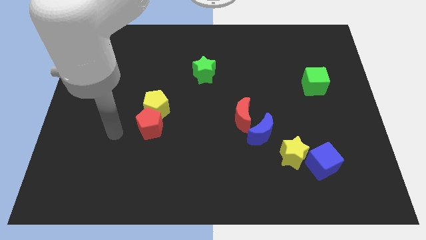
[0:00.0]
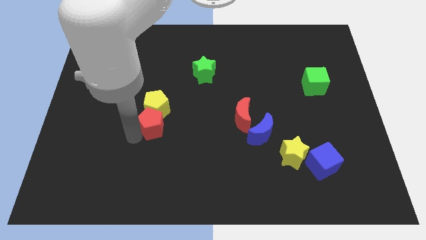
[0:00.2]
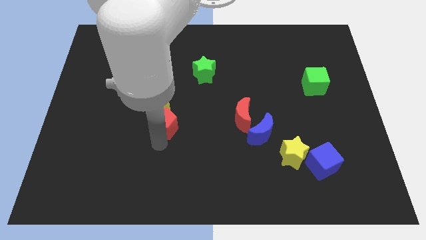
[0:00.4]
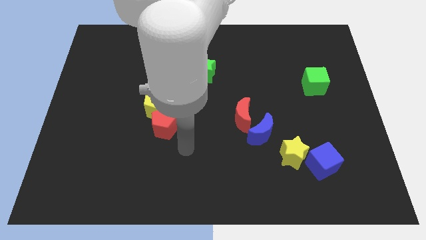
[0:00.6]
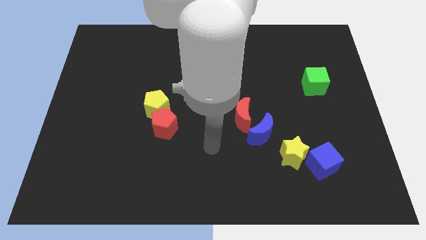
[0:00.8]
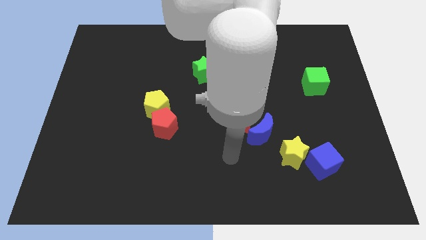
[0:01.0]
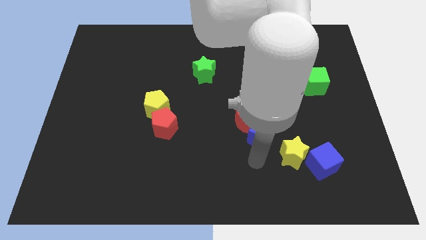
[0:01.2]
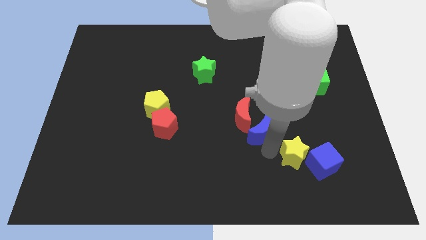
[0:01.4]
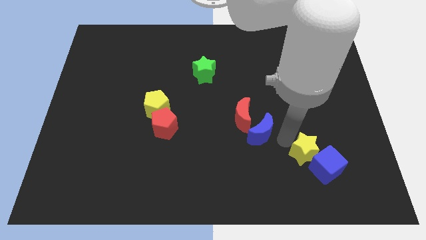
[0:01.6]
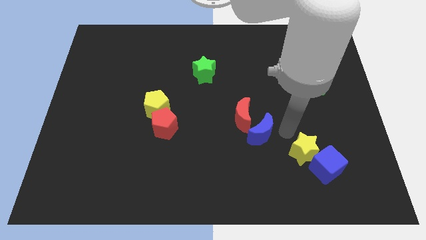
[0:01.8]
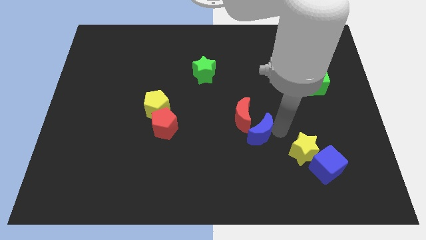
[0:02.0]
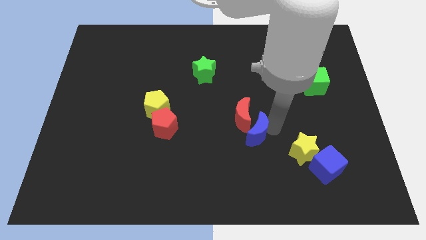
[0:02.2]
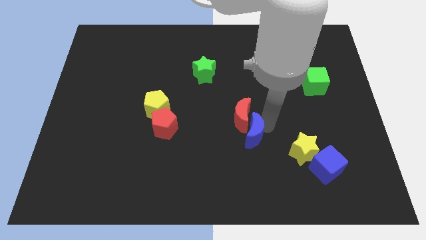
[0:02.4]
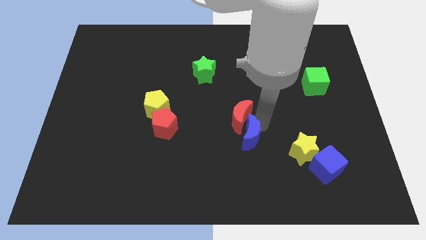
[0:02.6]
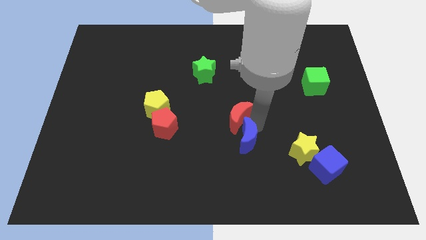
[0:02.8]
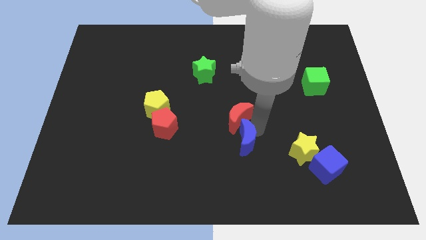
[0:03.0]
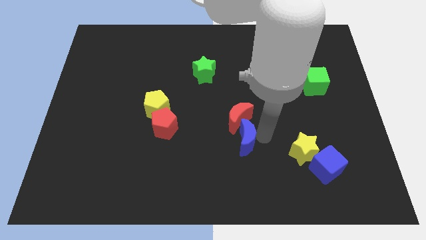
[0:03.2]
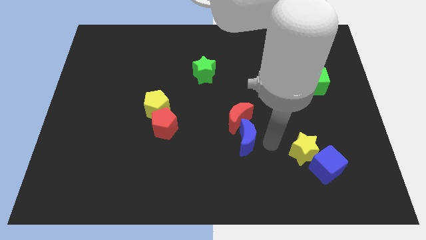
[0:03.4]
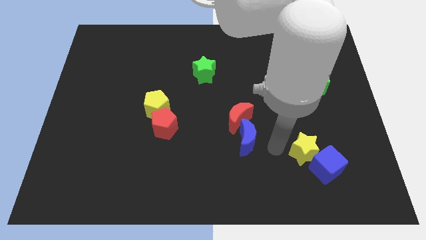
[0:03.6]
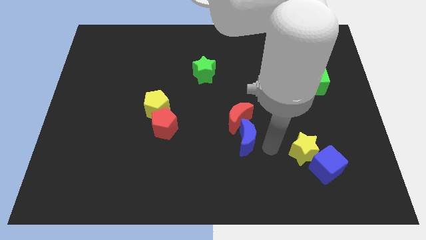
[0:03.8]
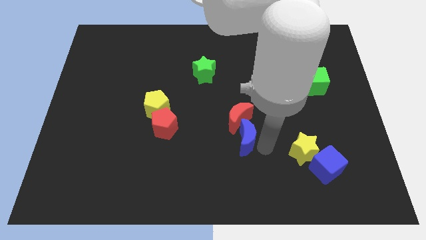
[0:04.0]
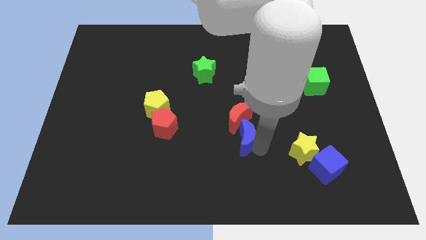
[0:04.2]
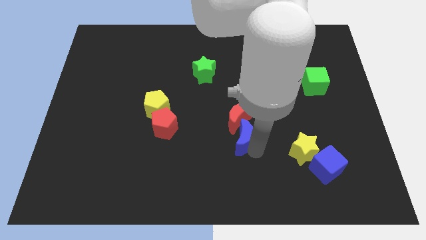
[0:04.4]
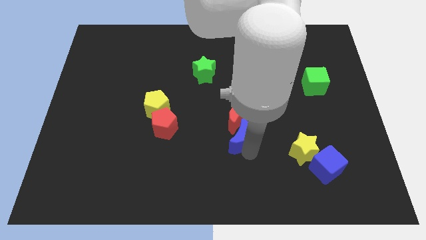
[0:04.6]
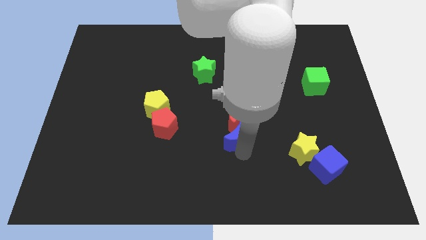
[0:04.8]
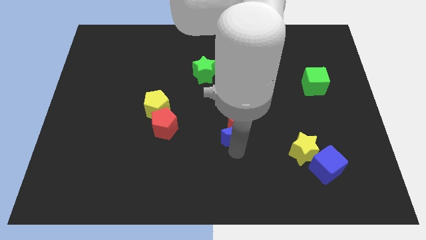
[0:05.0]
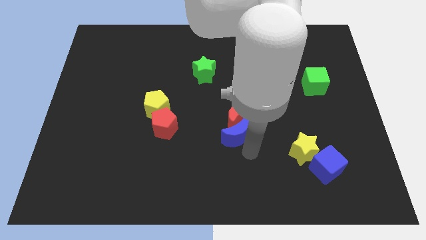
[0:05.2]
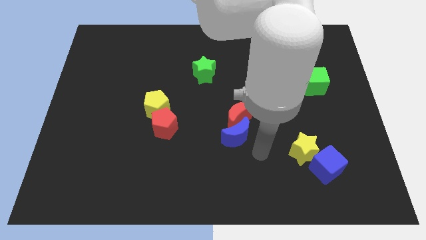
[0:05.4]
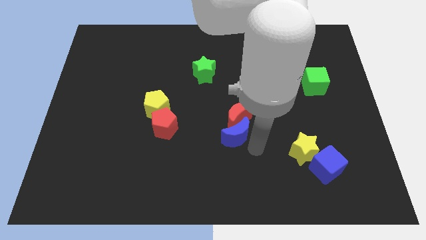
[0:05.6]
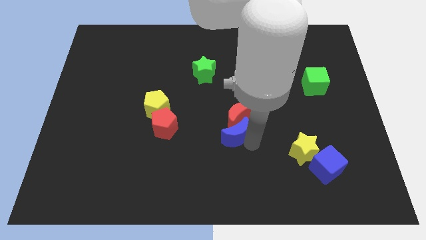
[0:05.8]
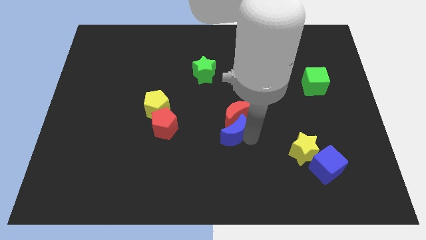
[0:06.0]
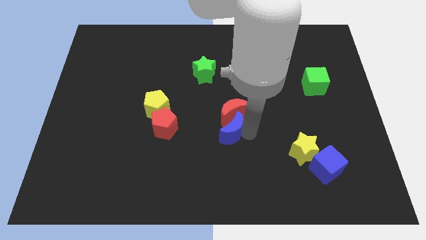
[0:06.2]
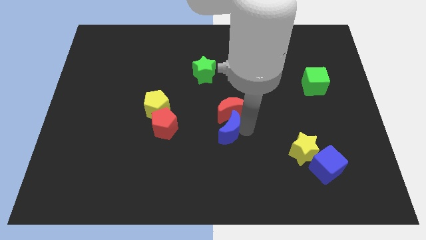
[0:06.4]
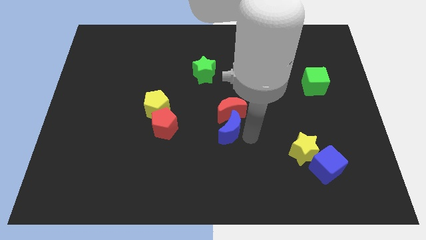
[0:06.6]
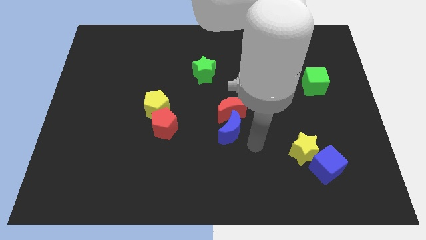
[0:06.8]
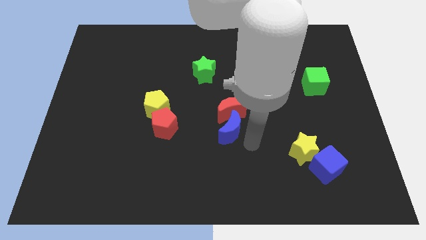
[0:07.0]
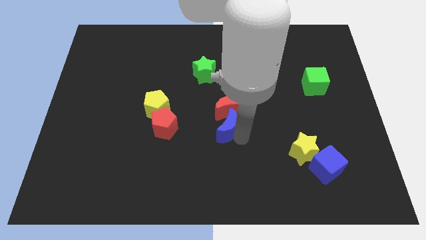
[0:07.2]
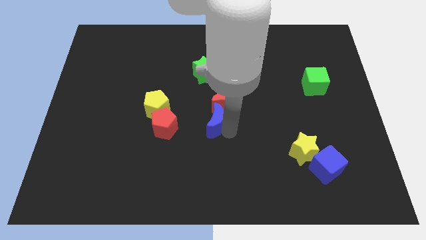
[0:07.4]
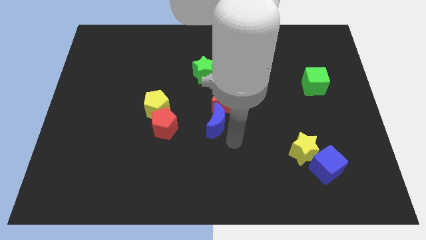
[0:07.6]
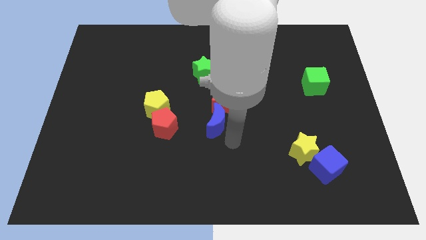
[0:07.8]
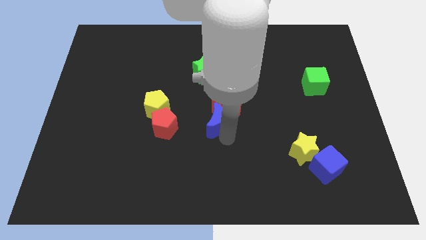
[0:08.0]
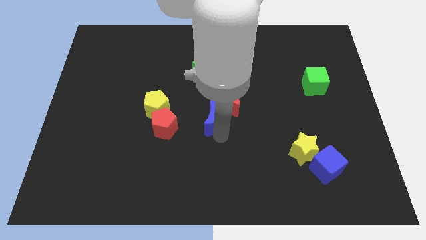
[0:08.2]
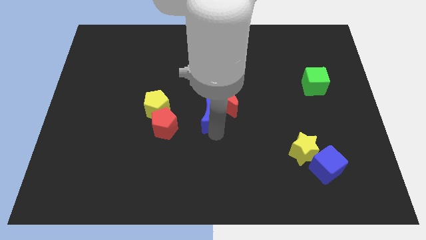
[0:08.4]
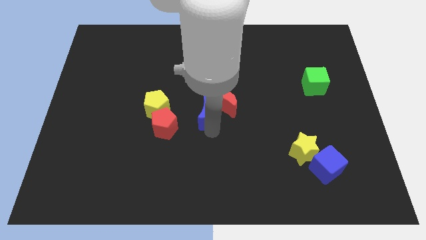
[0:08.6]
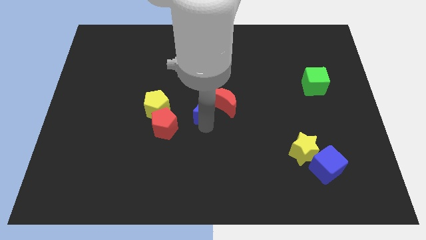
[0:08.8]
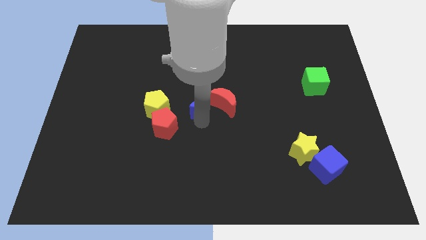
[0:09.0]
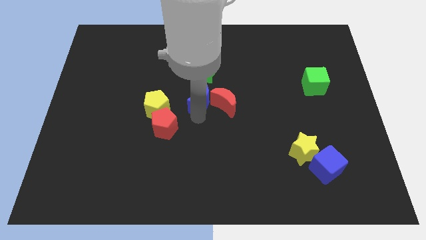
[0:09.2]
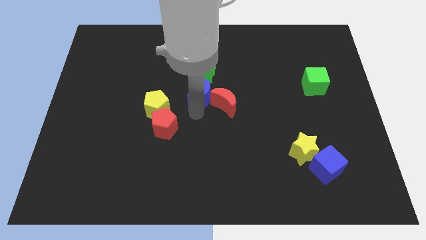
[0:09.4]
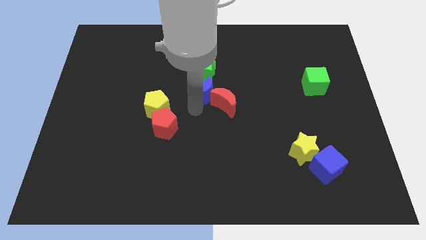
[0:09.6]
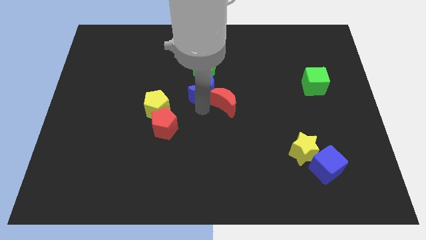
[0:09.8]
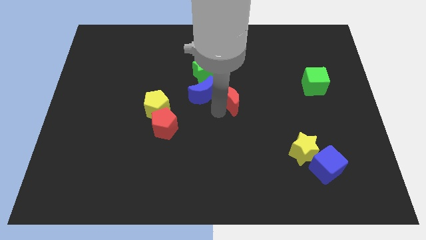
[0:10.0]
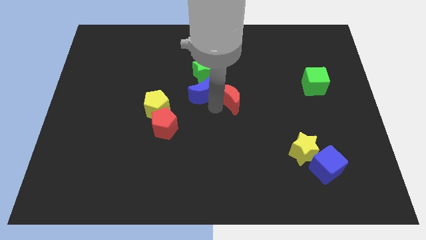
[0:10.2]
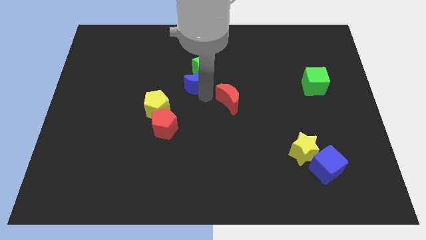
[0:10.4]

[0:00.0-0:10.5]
push the blue moon upwards and left

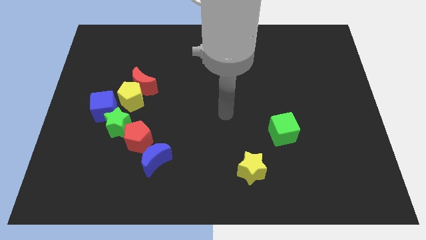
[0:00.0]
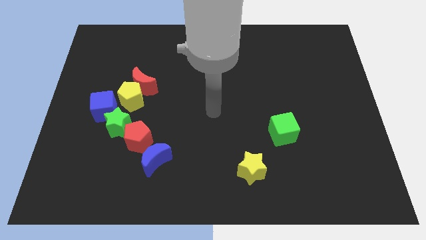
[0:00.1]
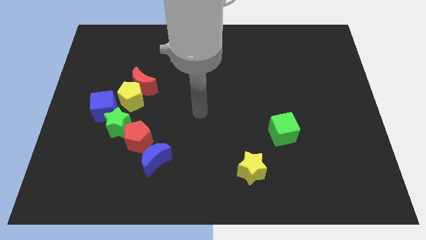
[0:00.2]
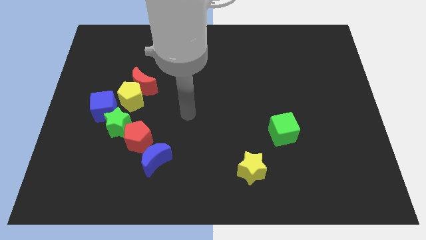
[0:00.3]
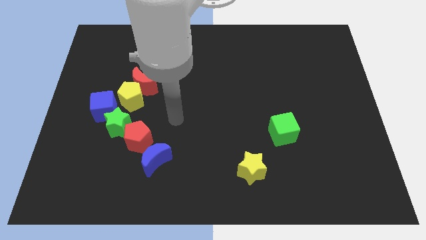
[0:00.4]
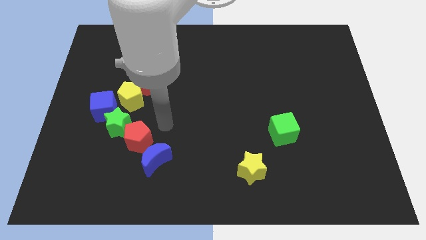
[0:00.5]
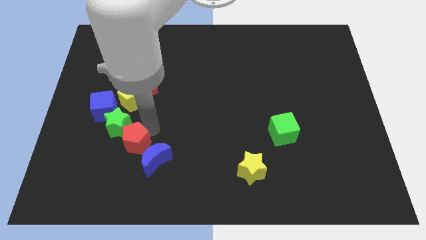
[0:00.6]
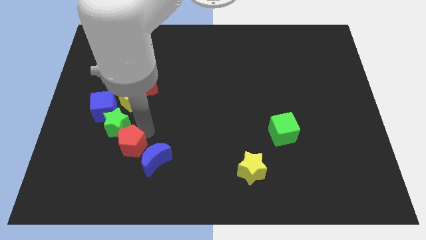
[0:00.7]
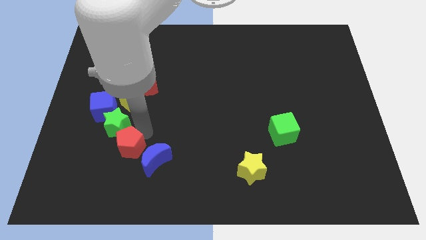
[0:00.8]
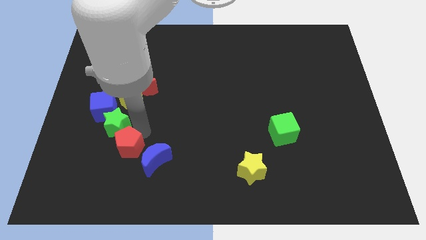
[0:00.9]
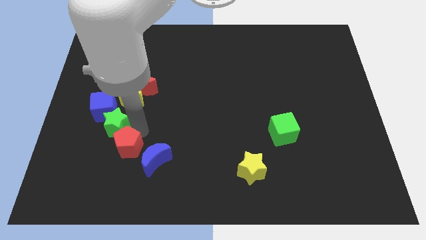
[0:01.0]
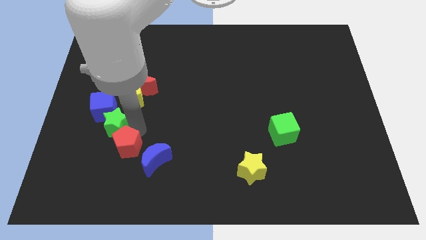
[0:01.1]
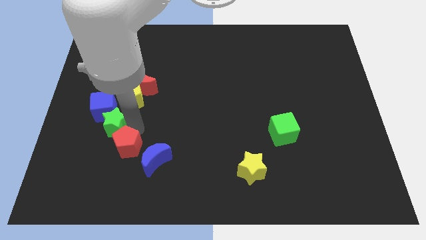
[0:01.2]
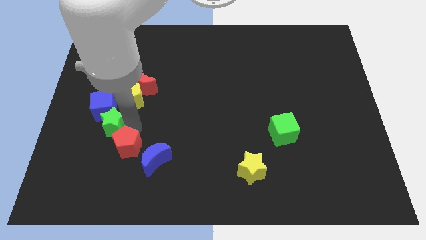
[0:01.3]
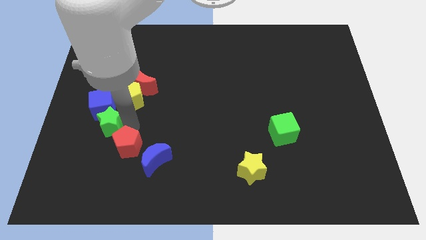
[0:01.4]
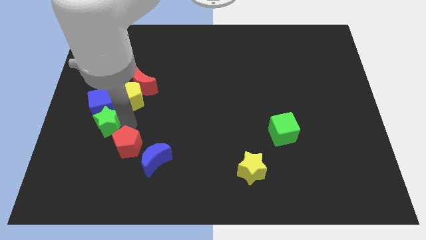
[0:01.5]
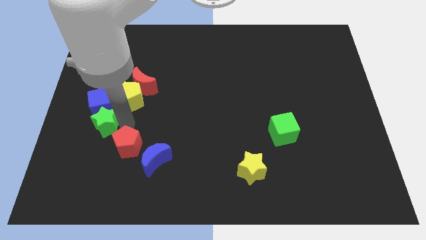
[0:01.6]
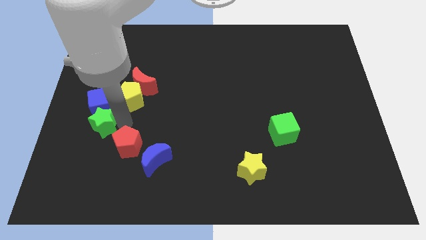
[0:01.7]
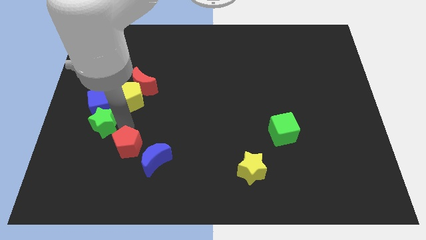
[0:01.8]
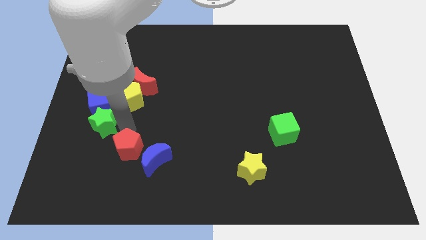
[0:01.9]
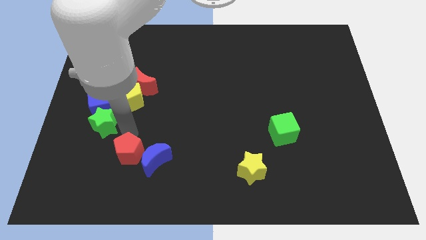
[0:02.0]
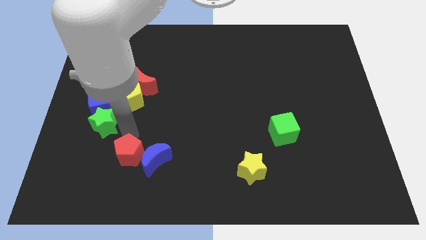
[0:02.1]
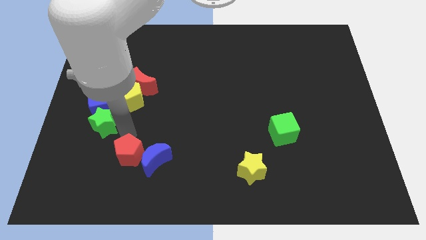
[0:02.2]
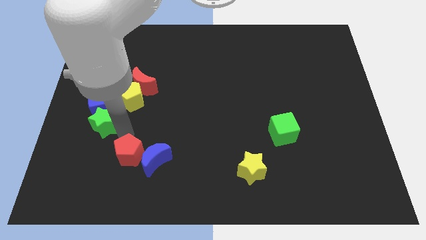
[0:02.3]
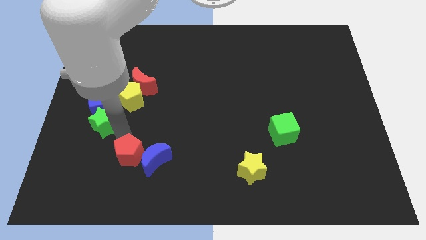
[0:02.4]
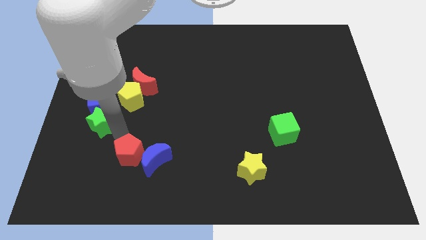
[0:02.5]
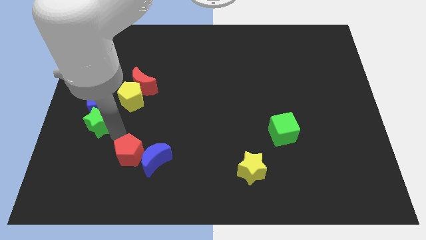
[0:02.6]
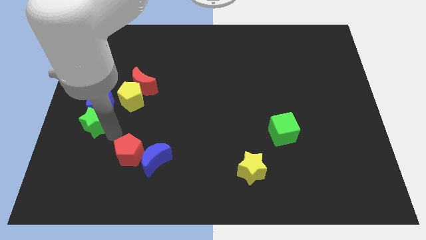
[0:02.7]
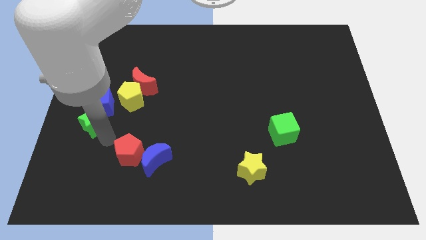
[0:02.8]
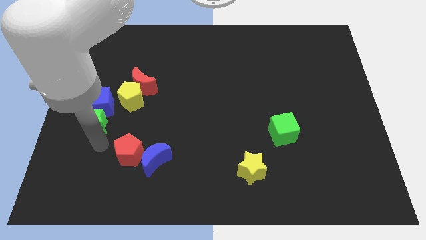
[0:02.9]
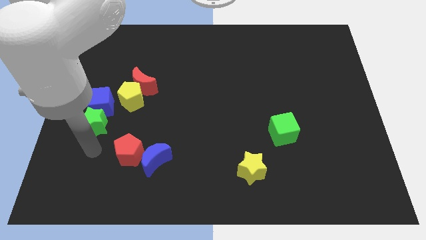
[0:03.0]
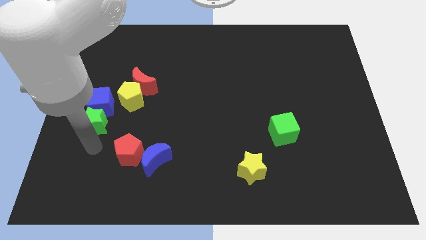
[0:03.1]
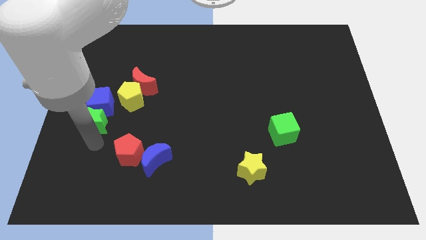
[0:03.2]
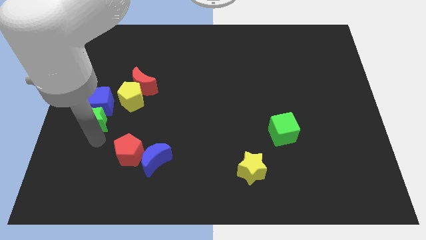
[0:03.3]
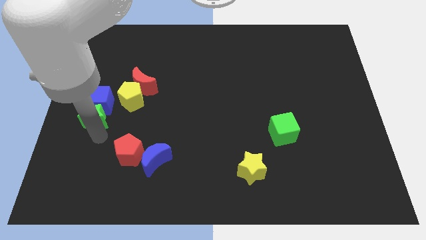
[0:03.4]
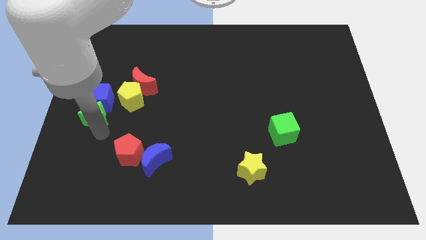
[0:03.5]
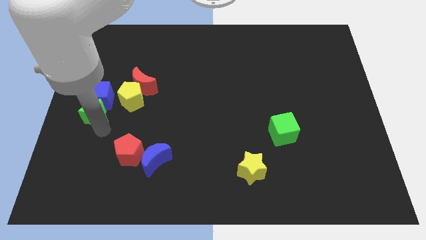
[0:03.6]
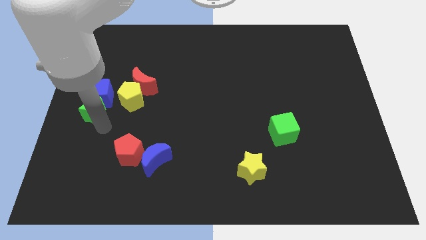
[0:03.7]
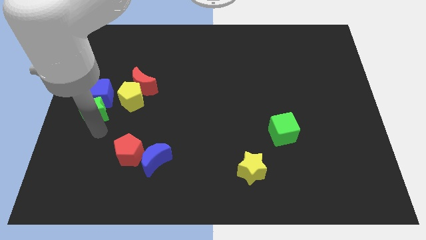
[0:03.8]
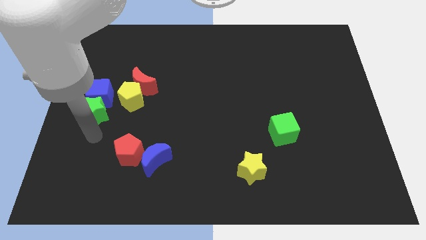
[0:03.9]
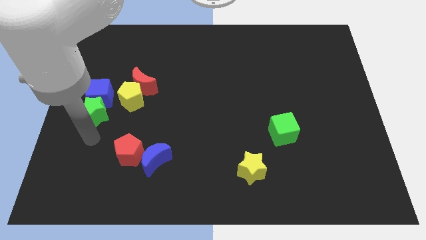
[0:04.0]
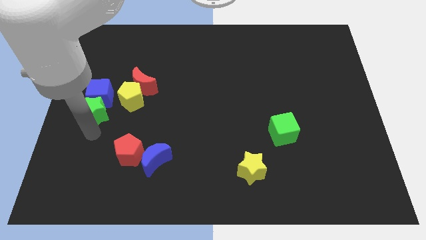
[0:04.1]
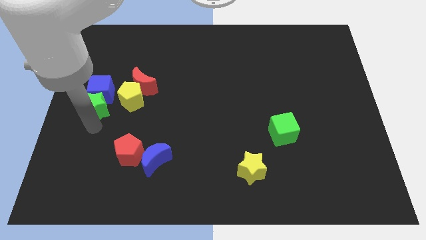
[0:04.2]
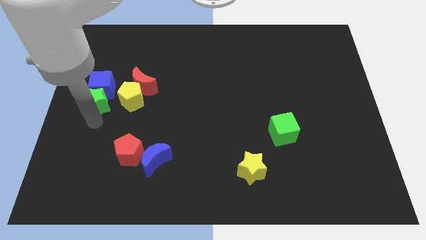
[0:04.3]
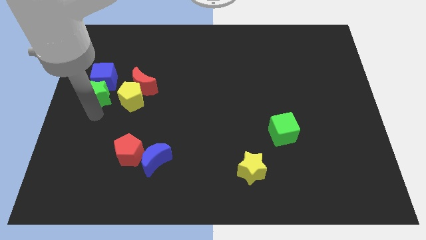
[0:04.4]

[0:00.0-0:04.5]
slide the green star slightly upwards
